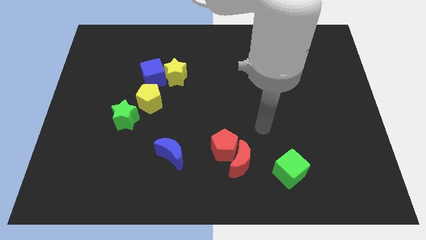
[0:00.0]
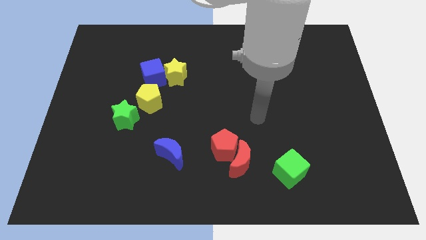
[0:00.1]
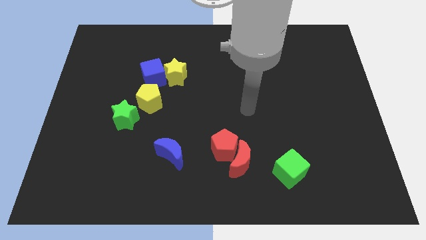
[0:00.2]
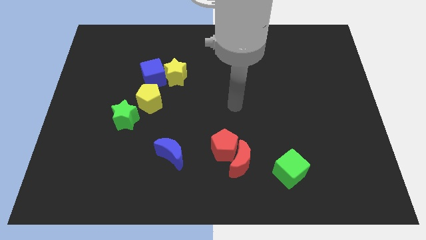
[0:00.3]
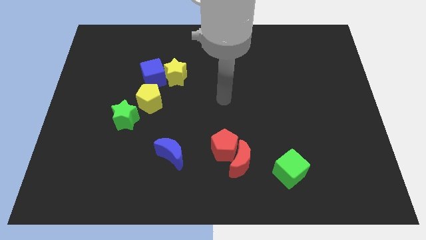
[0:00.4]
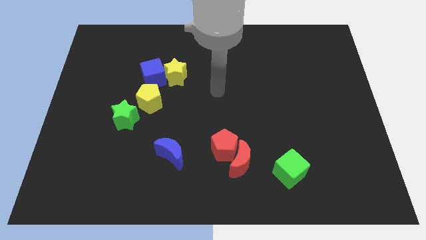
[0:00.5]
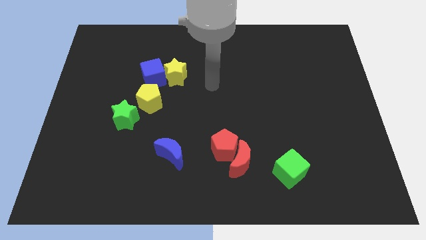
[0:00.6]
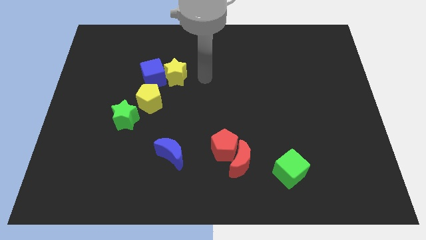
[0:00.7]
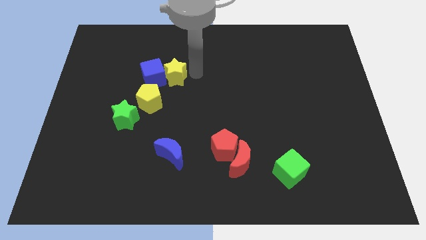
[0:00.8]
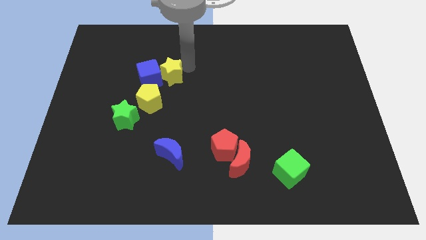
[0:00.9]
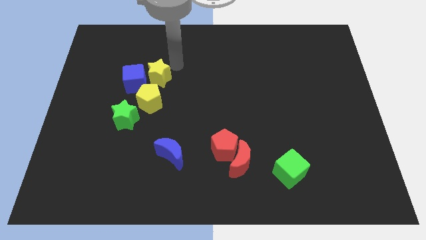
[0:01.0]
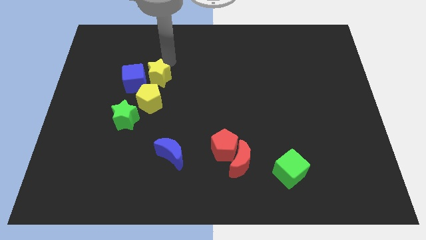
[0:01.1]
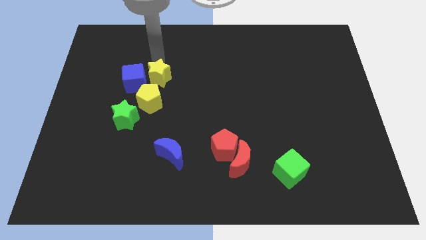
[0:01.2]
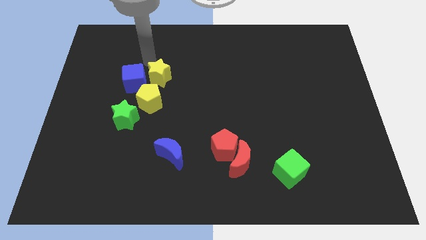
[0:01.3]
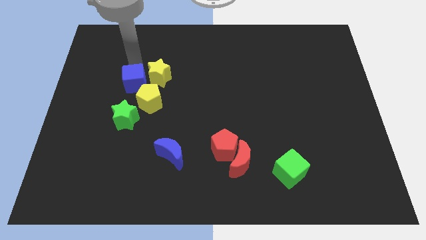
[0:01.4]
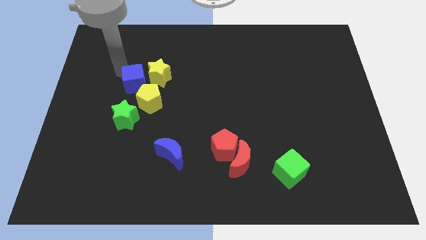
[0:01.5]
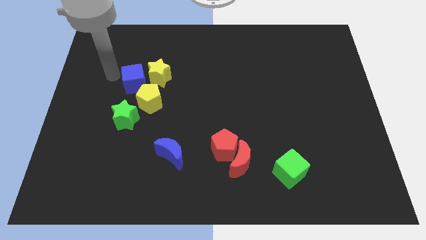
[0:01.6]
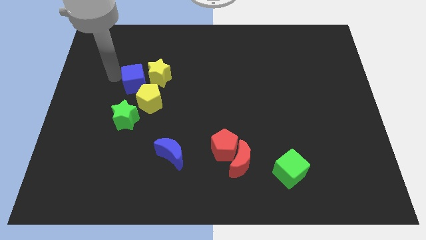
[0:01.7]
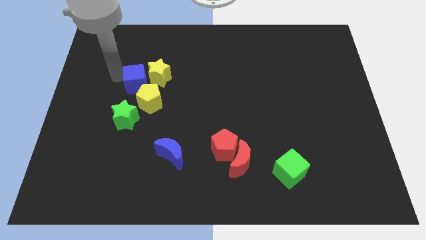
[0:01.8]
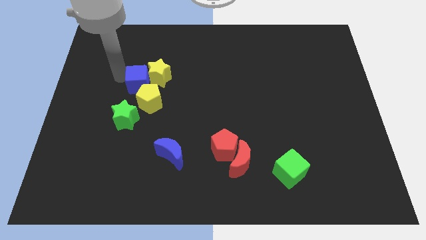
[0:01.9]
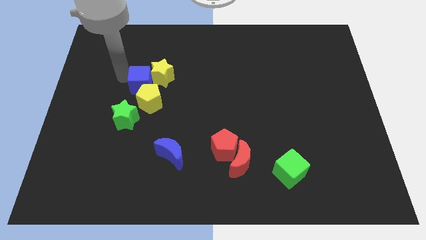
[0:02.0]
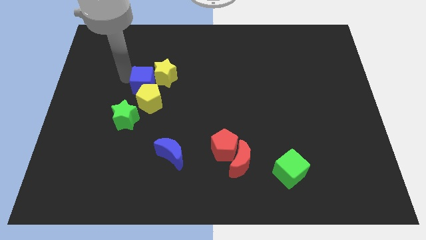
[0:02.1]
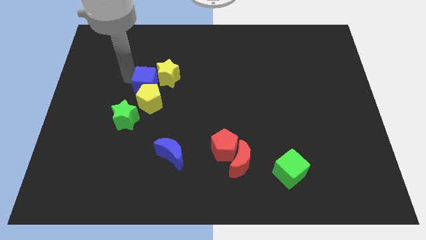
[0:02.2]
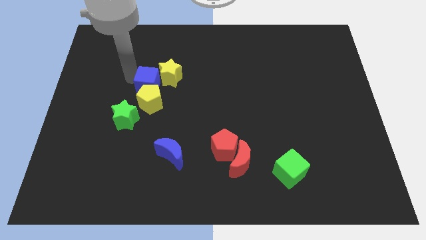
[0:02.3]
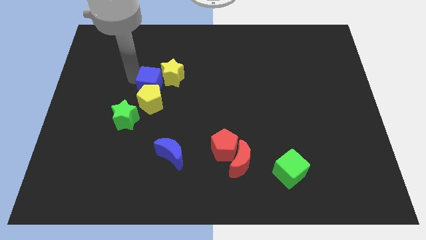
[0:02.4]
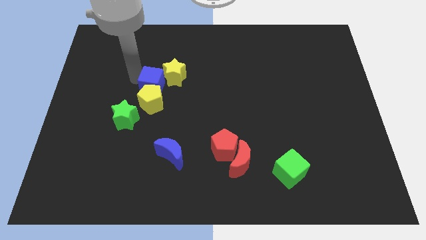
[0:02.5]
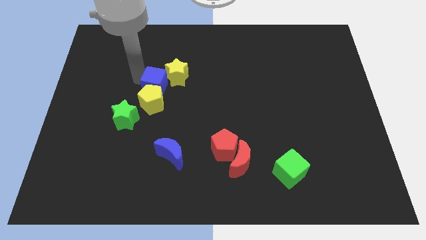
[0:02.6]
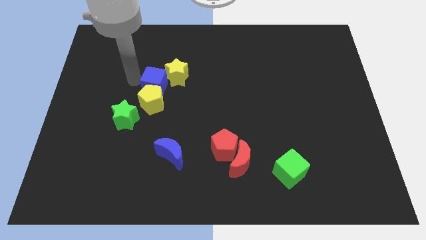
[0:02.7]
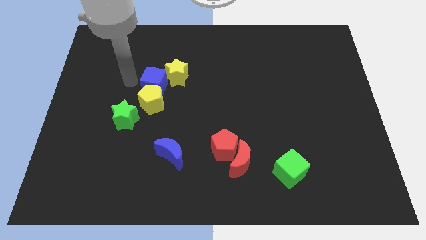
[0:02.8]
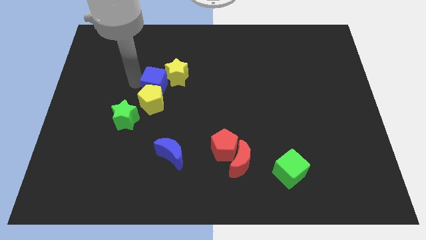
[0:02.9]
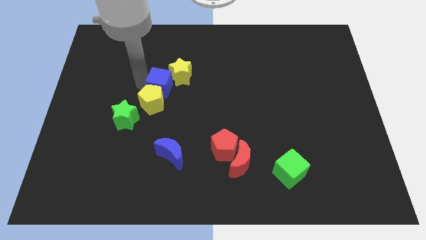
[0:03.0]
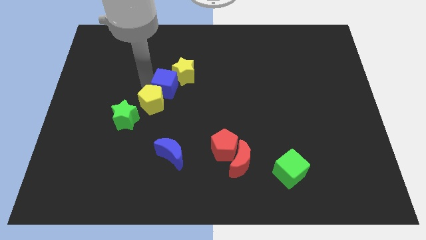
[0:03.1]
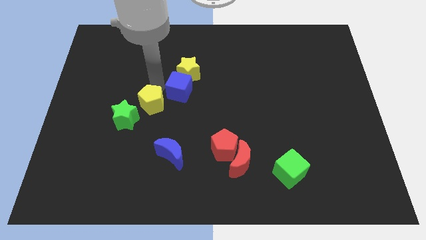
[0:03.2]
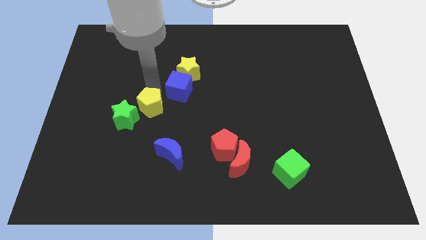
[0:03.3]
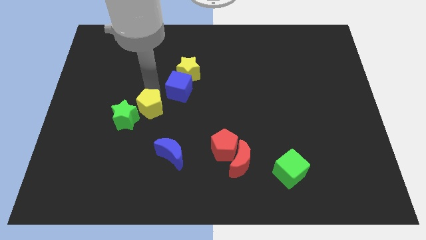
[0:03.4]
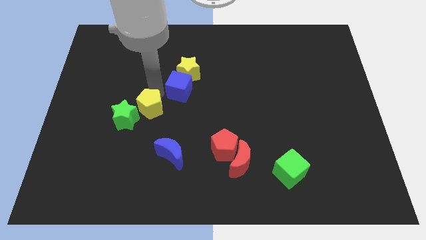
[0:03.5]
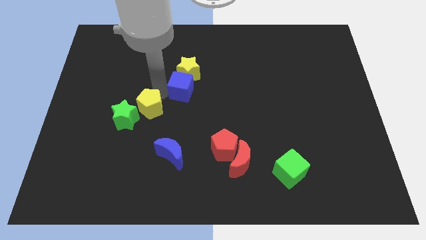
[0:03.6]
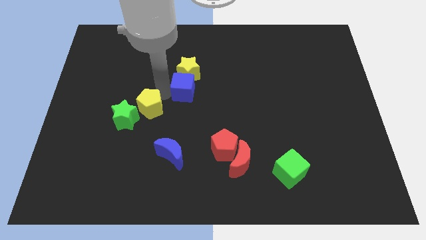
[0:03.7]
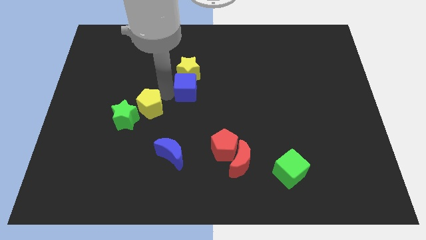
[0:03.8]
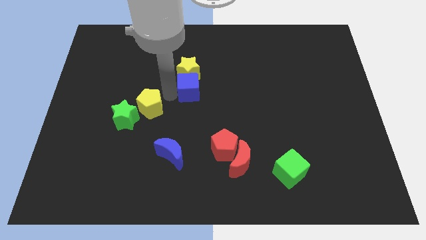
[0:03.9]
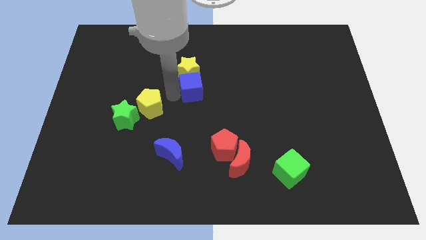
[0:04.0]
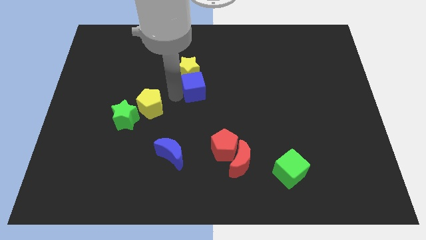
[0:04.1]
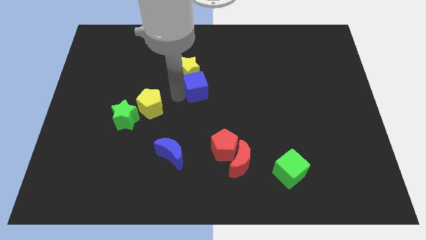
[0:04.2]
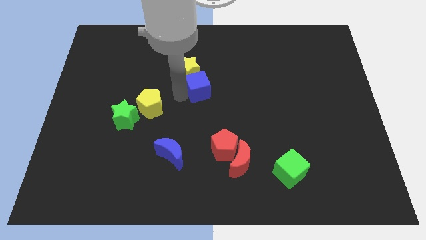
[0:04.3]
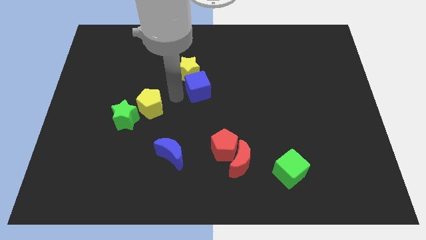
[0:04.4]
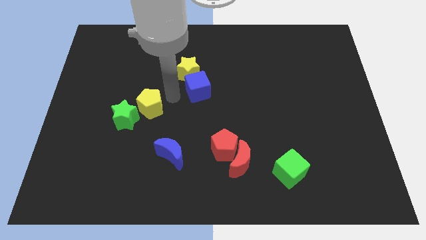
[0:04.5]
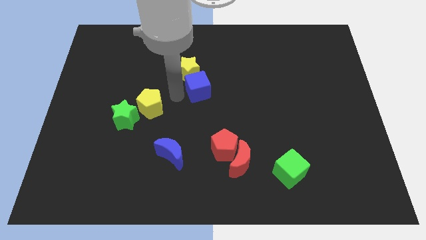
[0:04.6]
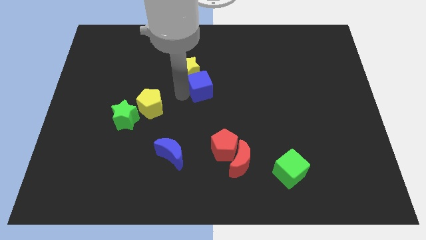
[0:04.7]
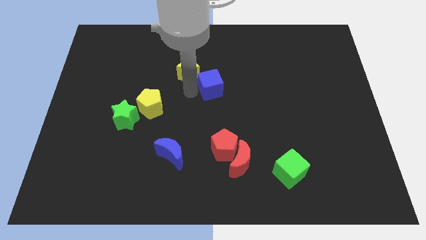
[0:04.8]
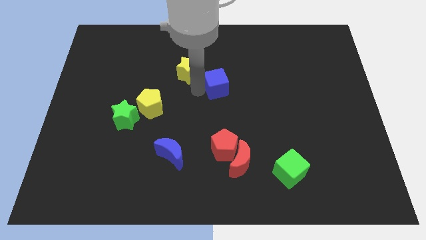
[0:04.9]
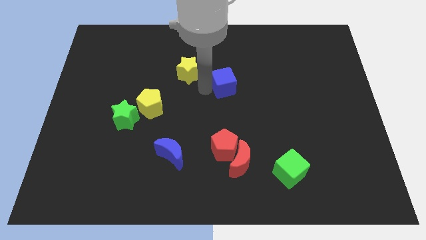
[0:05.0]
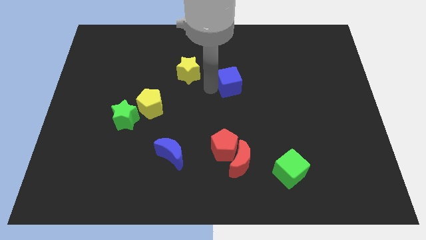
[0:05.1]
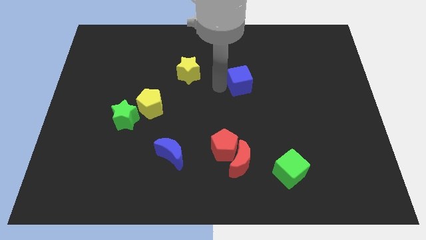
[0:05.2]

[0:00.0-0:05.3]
move the blue cube to the right

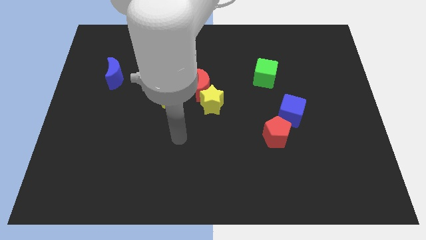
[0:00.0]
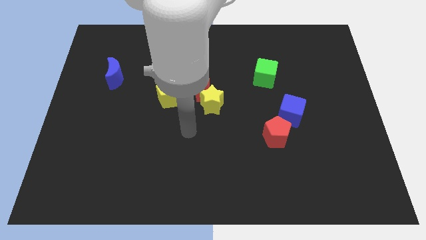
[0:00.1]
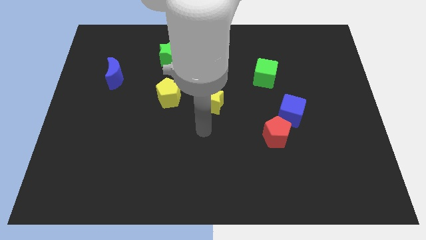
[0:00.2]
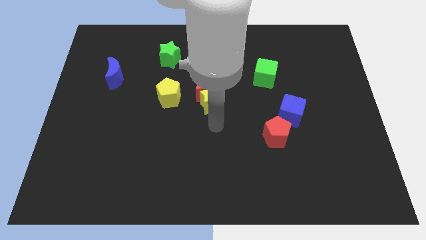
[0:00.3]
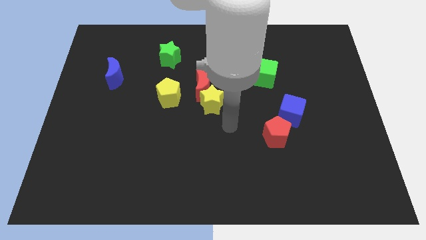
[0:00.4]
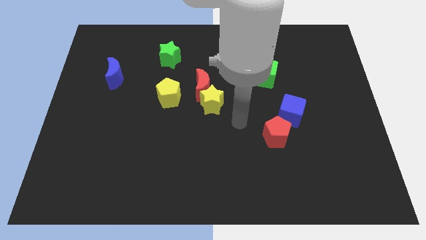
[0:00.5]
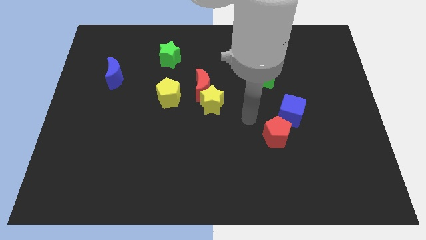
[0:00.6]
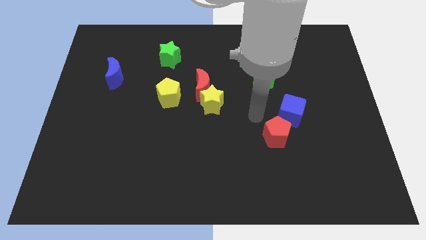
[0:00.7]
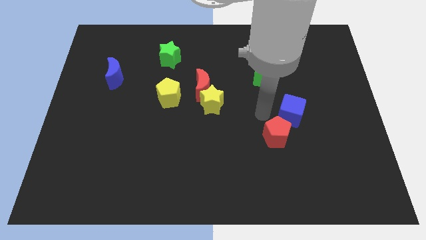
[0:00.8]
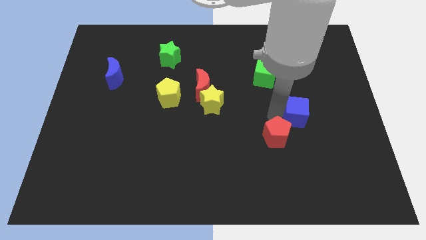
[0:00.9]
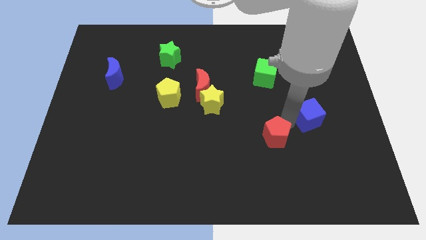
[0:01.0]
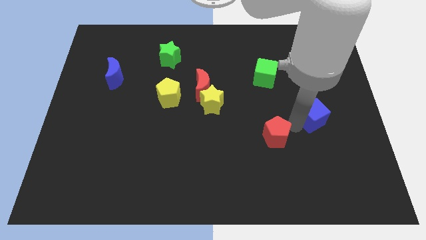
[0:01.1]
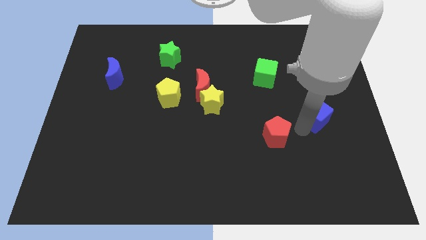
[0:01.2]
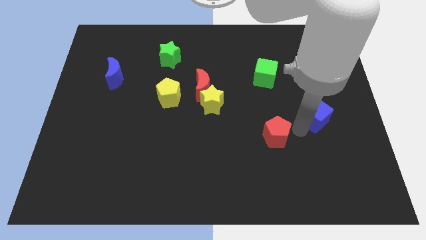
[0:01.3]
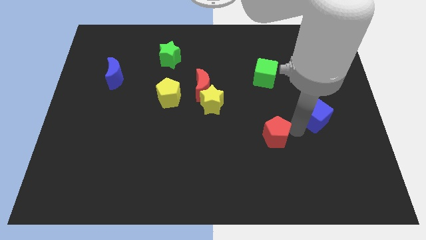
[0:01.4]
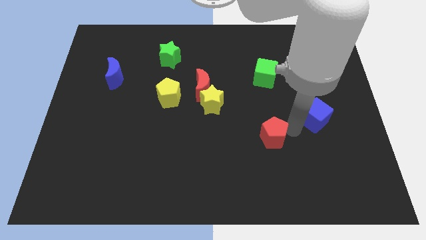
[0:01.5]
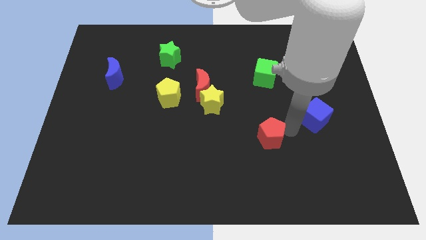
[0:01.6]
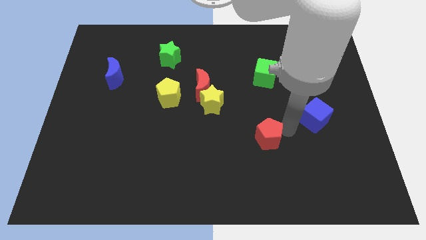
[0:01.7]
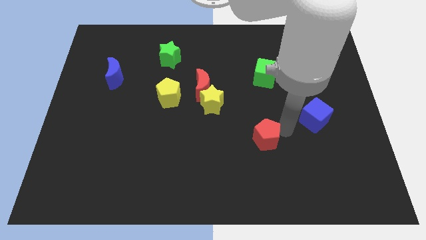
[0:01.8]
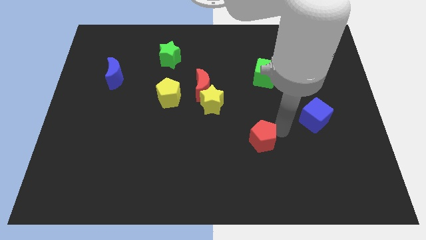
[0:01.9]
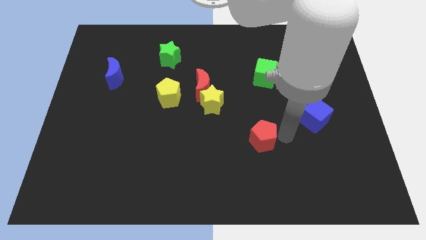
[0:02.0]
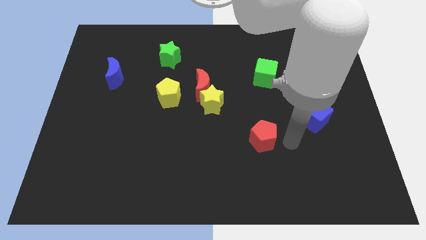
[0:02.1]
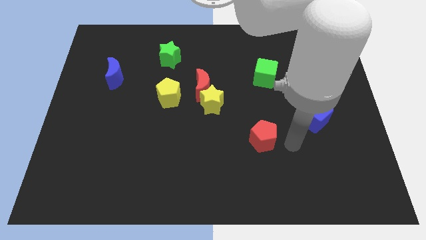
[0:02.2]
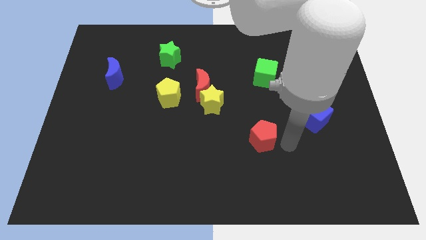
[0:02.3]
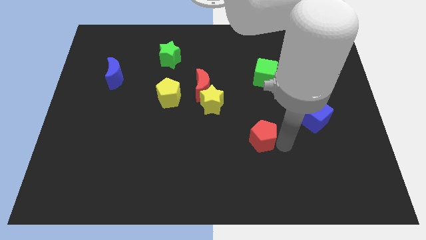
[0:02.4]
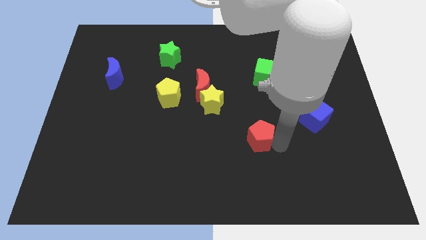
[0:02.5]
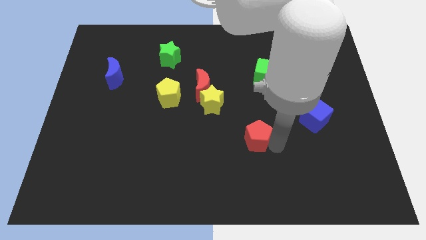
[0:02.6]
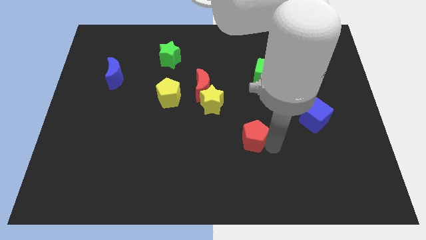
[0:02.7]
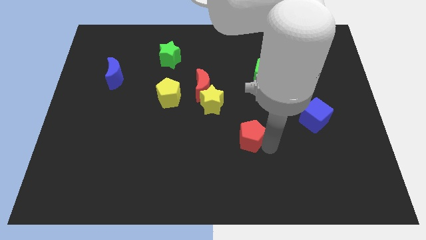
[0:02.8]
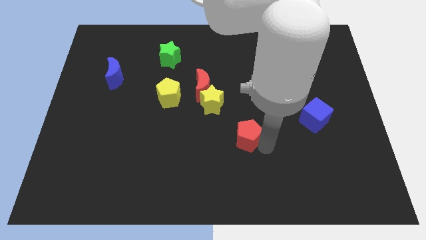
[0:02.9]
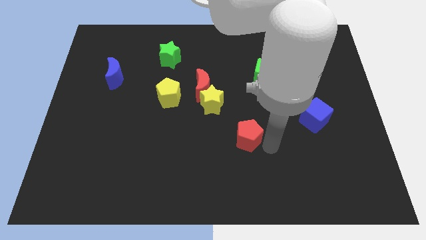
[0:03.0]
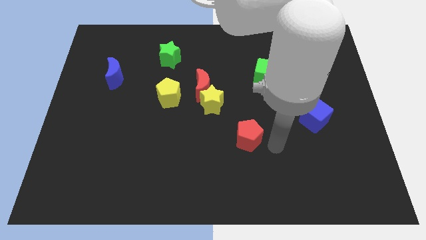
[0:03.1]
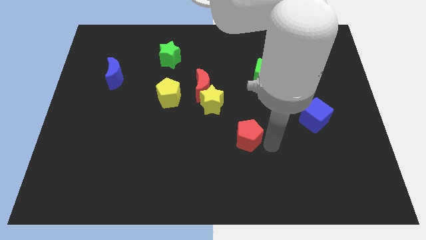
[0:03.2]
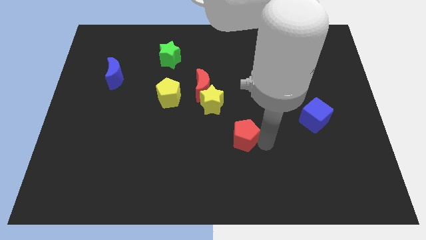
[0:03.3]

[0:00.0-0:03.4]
slide the red pentagon a bit to the left
